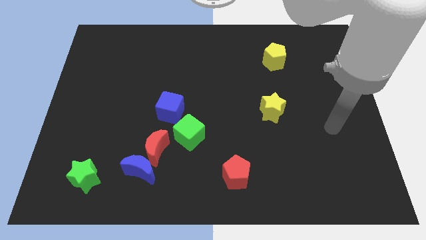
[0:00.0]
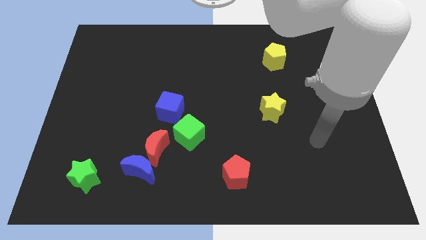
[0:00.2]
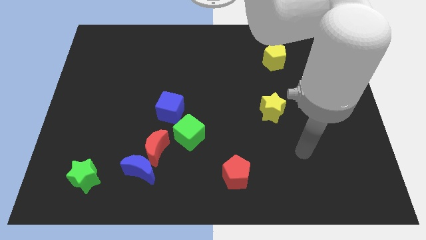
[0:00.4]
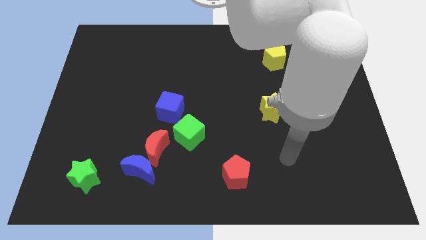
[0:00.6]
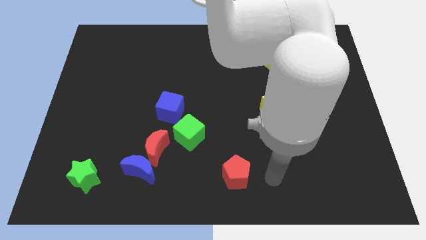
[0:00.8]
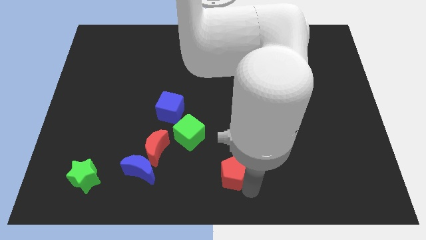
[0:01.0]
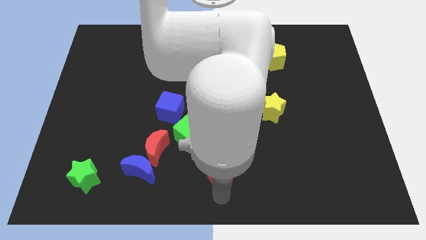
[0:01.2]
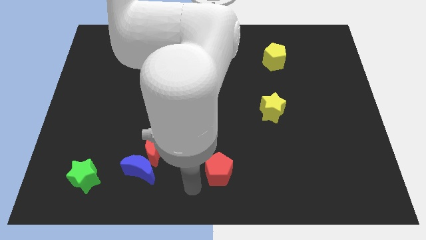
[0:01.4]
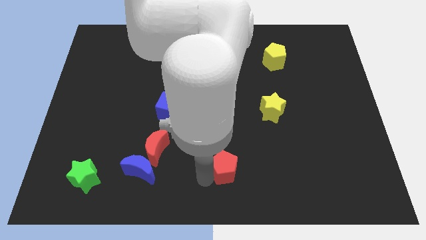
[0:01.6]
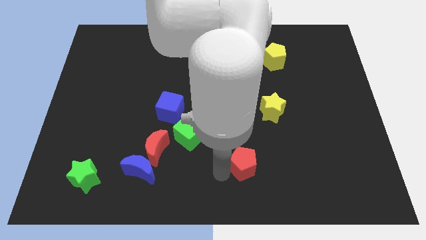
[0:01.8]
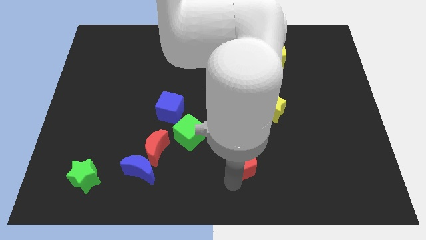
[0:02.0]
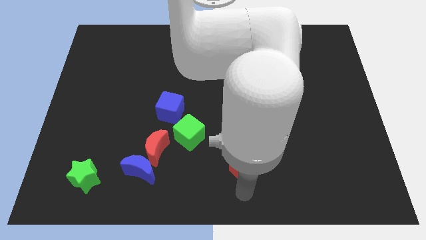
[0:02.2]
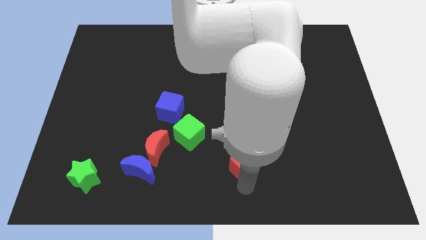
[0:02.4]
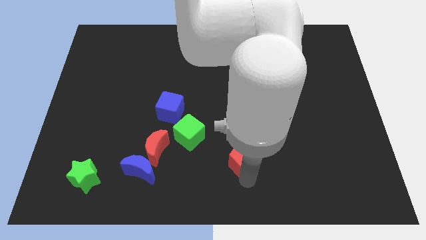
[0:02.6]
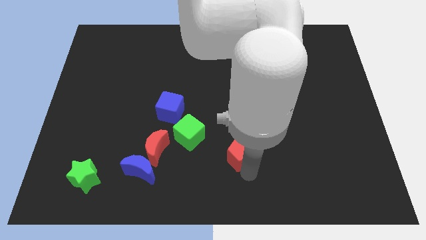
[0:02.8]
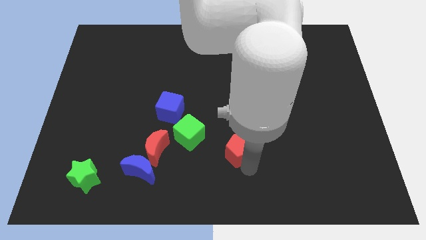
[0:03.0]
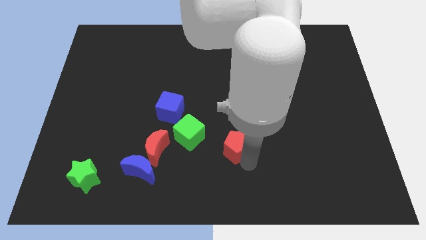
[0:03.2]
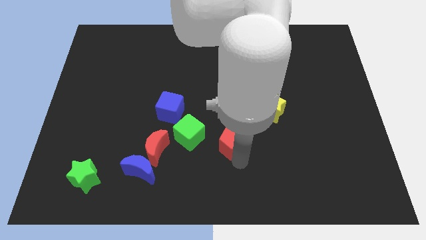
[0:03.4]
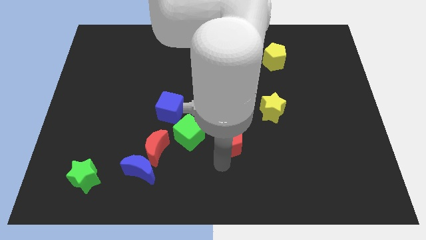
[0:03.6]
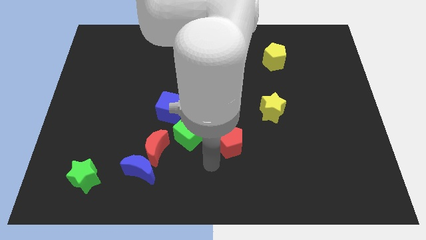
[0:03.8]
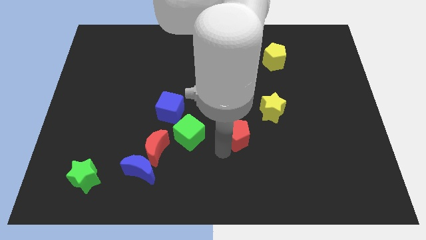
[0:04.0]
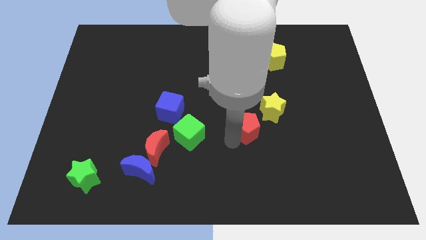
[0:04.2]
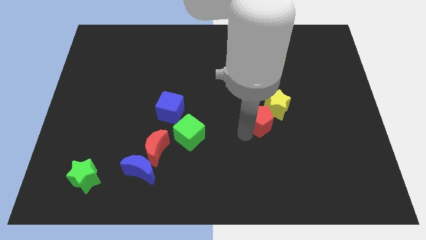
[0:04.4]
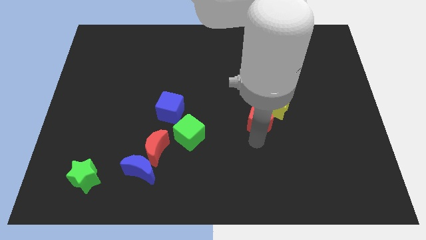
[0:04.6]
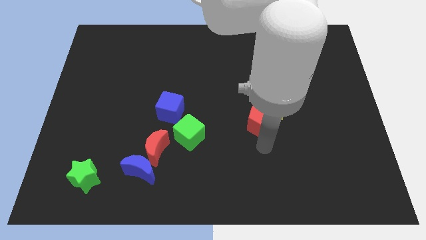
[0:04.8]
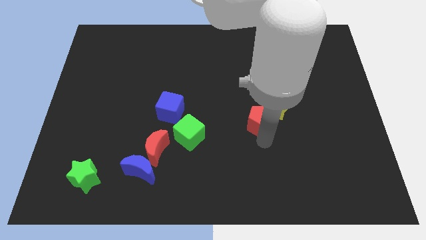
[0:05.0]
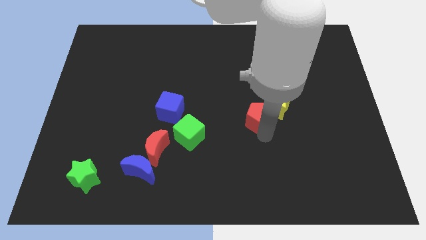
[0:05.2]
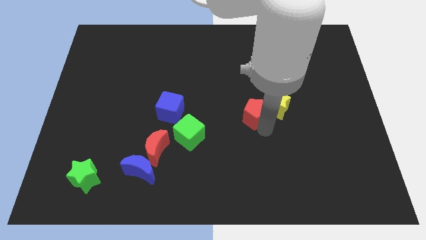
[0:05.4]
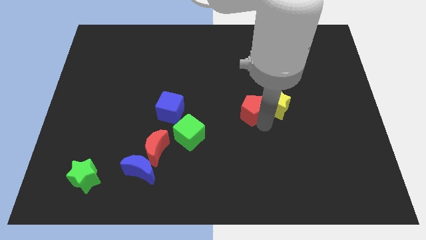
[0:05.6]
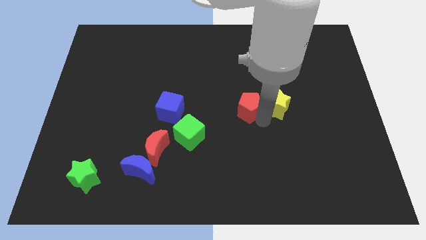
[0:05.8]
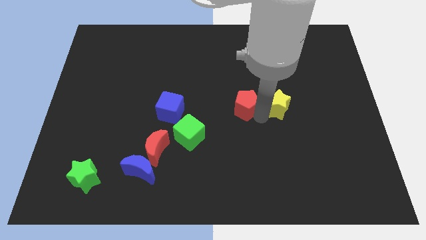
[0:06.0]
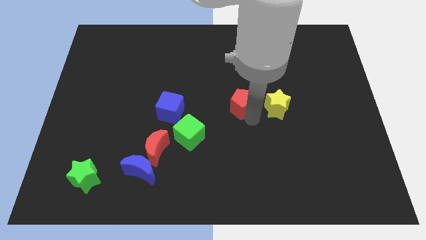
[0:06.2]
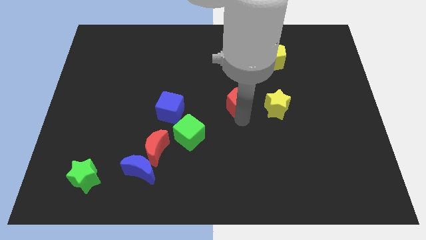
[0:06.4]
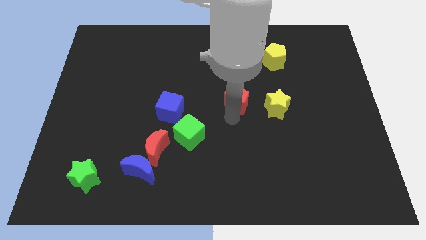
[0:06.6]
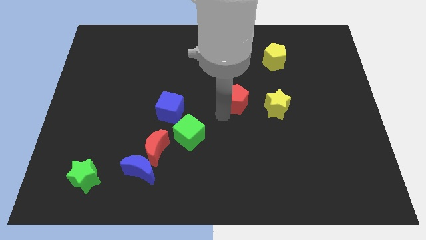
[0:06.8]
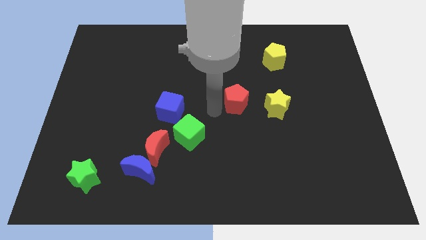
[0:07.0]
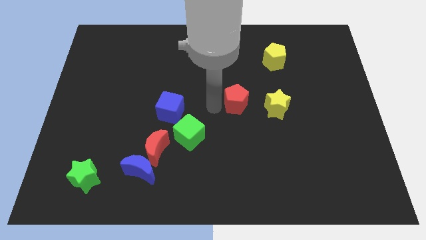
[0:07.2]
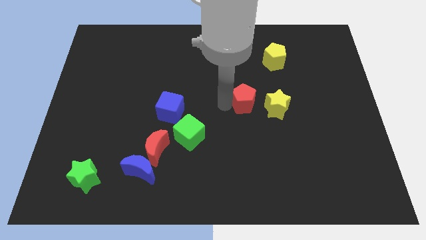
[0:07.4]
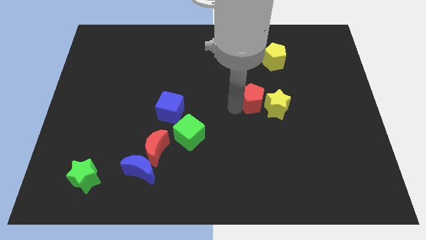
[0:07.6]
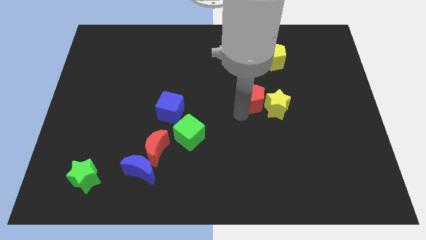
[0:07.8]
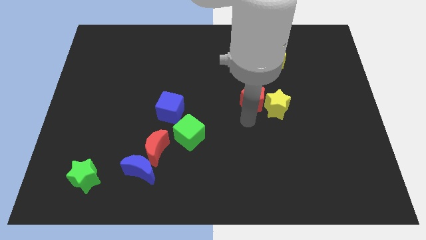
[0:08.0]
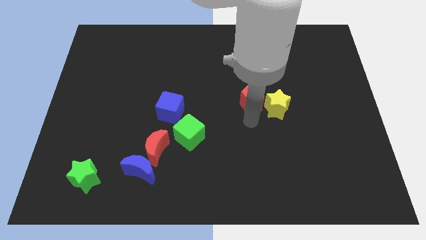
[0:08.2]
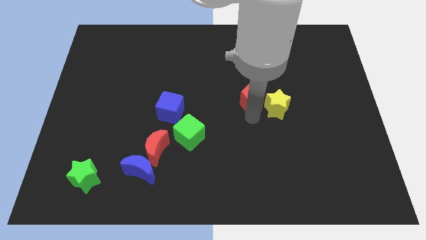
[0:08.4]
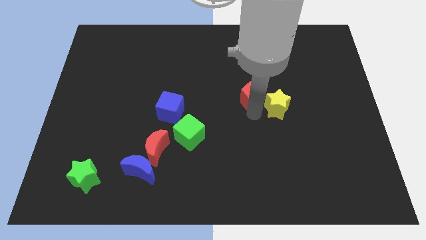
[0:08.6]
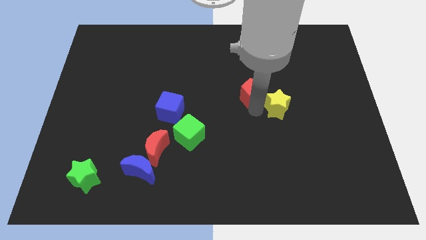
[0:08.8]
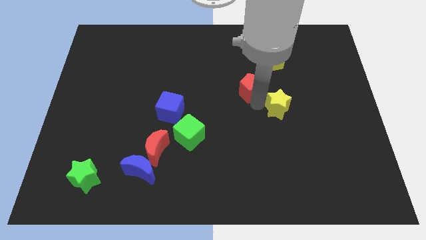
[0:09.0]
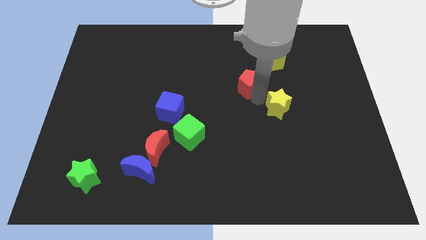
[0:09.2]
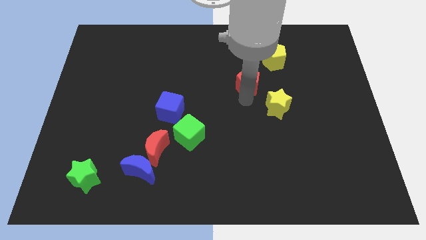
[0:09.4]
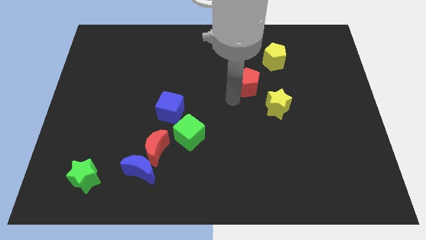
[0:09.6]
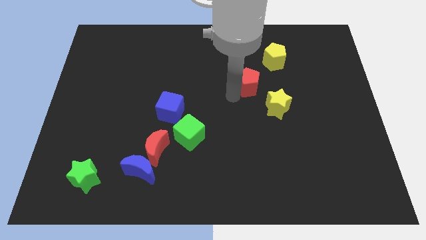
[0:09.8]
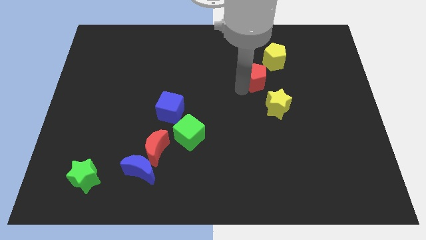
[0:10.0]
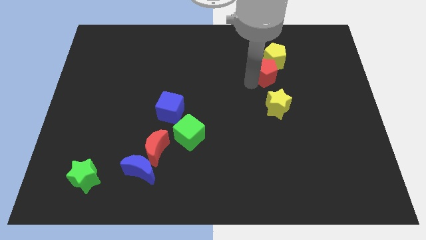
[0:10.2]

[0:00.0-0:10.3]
put the red pentagon next to the yellow pentagon

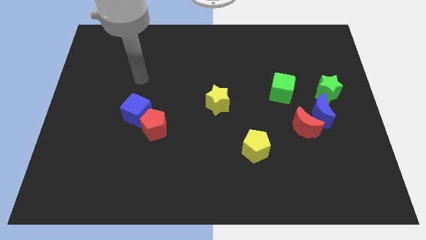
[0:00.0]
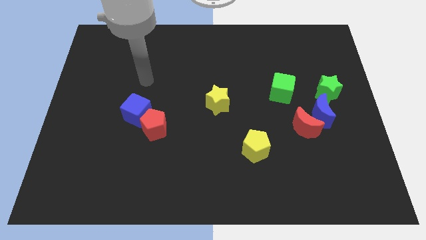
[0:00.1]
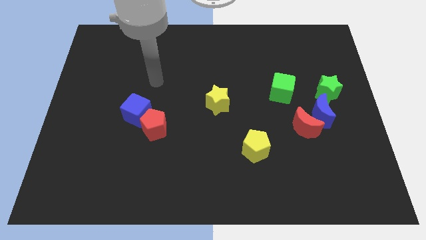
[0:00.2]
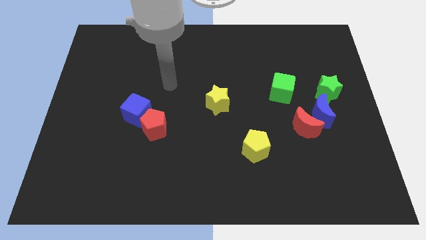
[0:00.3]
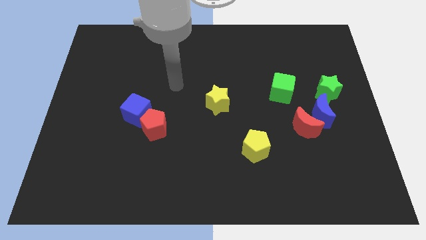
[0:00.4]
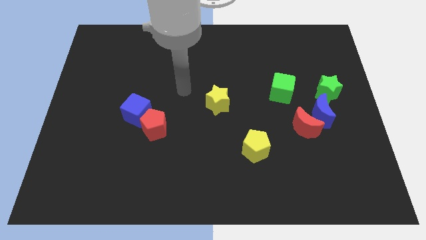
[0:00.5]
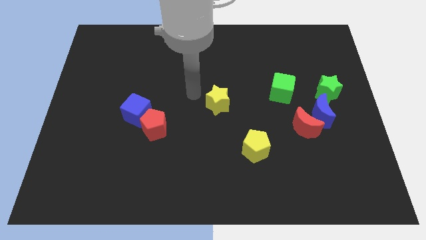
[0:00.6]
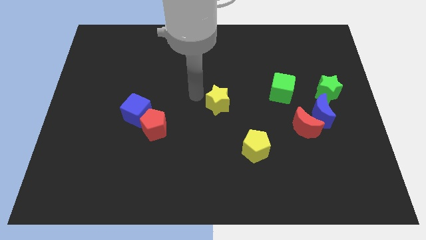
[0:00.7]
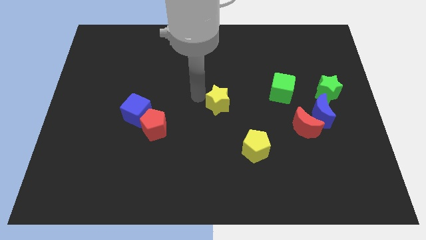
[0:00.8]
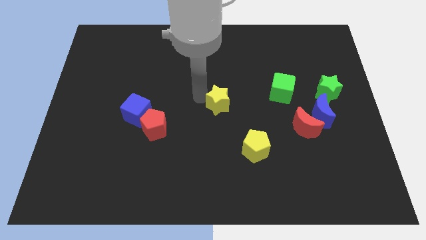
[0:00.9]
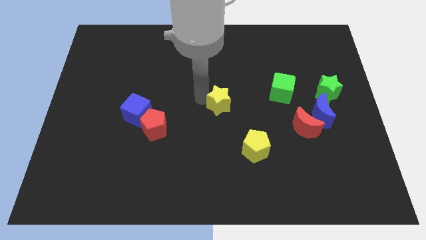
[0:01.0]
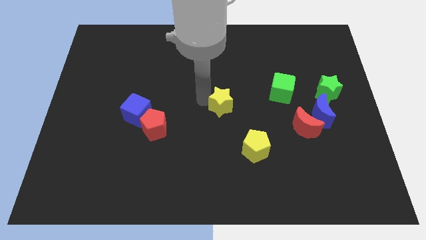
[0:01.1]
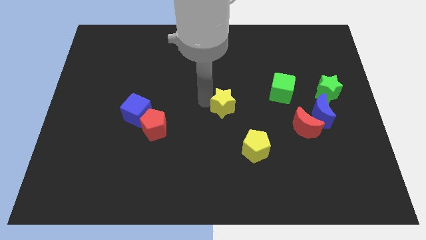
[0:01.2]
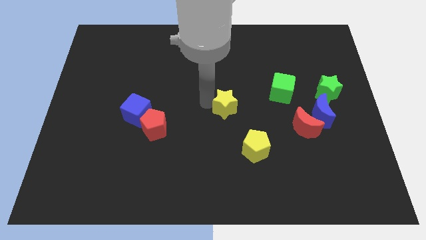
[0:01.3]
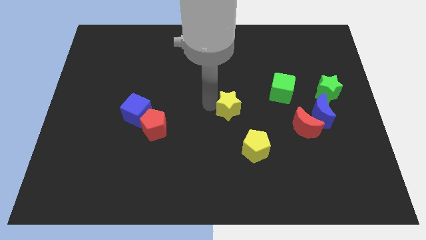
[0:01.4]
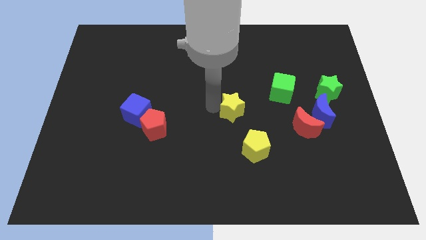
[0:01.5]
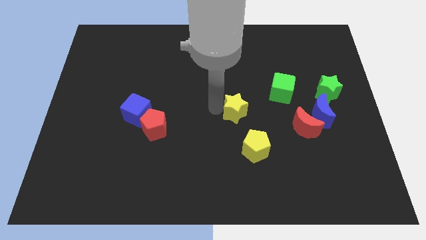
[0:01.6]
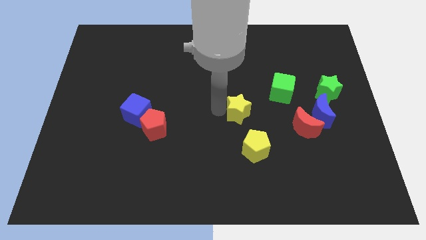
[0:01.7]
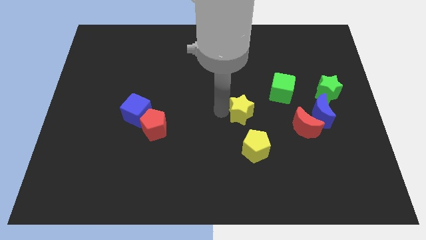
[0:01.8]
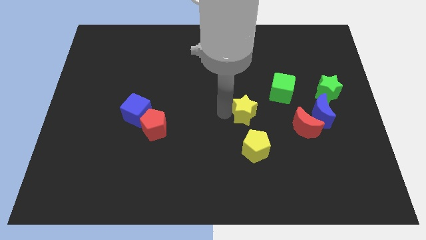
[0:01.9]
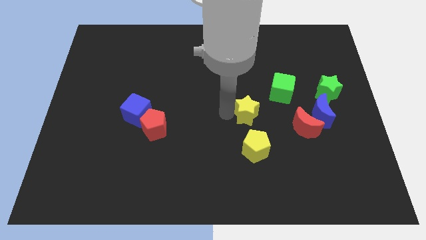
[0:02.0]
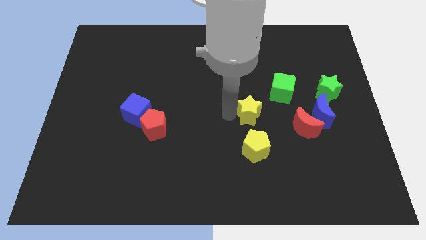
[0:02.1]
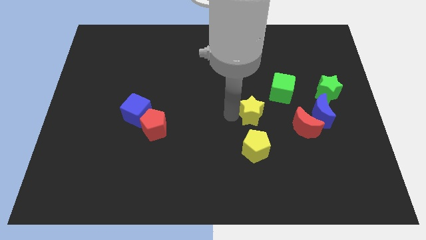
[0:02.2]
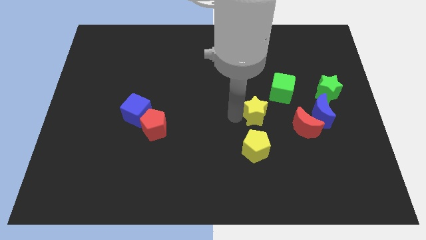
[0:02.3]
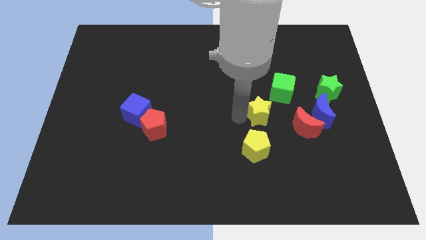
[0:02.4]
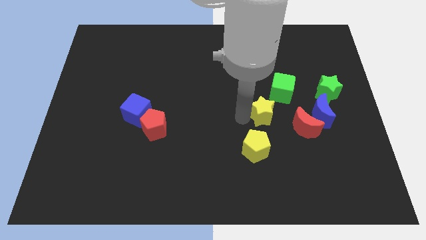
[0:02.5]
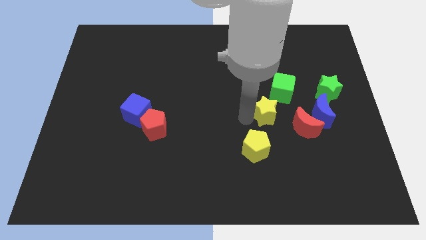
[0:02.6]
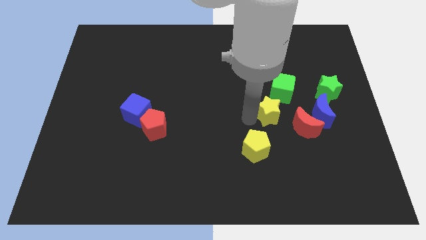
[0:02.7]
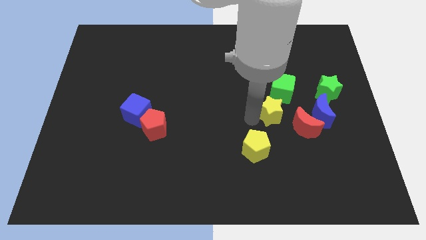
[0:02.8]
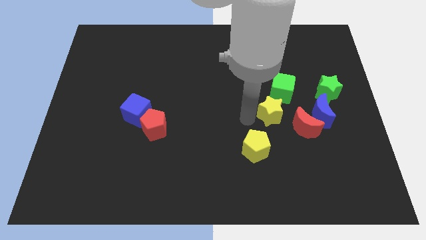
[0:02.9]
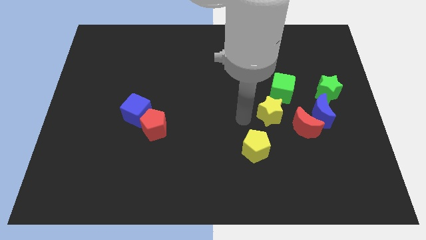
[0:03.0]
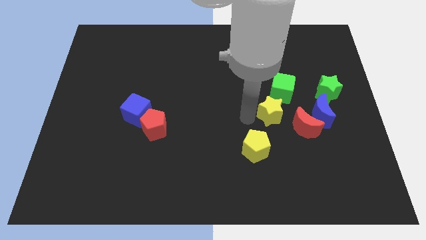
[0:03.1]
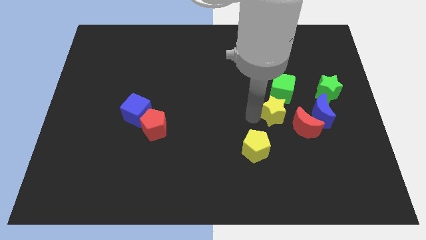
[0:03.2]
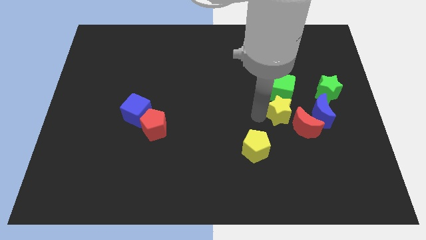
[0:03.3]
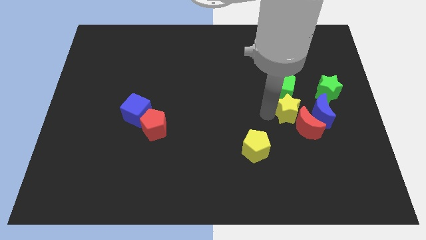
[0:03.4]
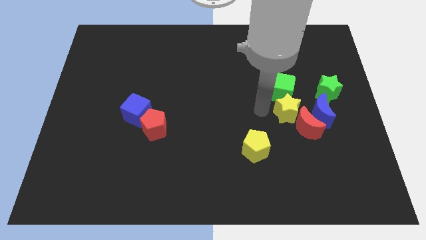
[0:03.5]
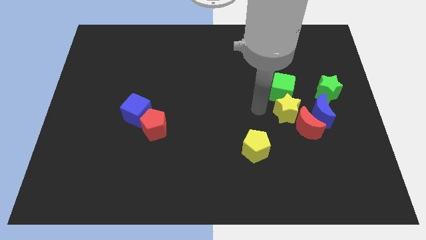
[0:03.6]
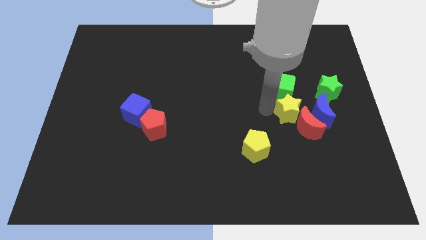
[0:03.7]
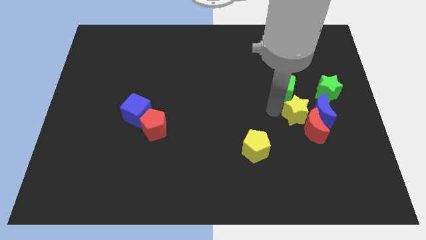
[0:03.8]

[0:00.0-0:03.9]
slide the yellow star next to the blue moon
